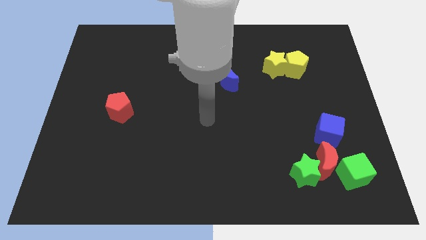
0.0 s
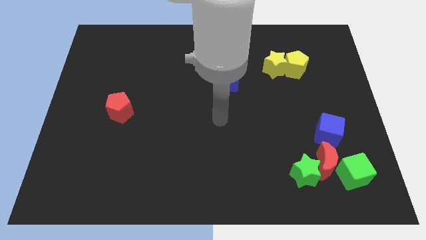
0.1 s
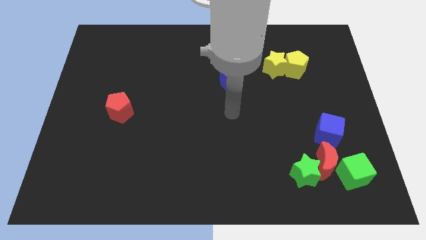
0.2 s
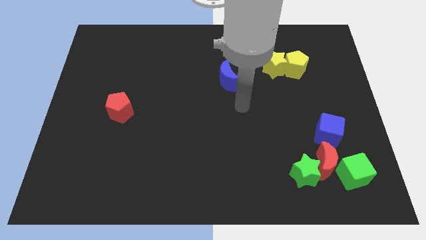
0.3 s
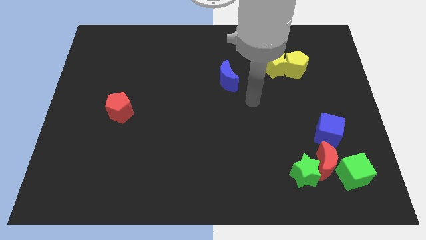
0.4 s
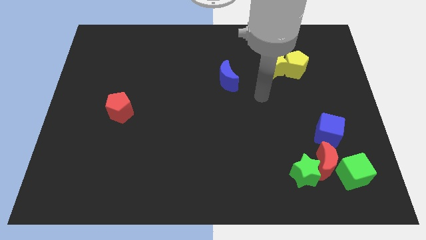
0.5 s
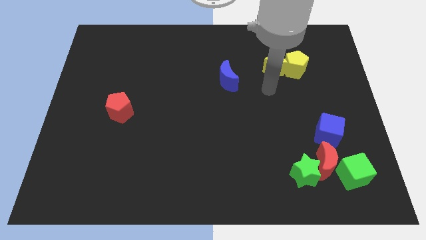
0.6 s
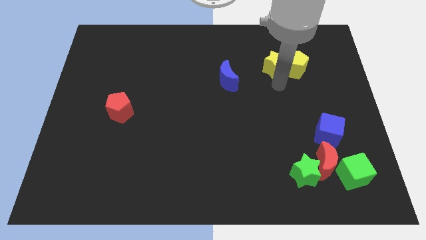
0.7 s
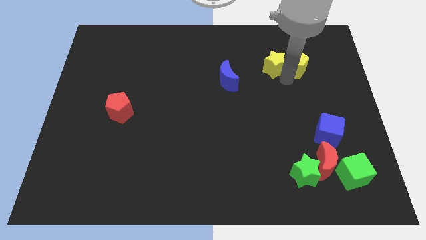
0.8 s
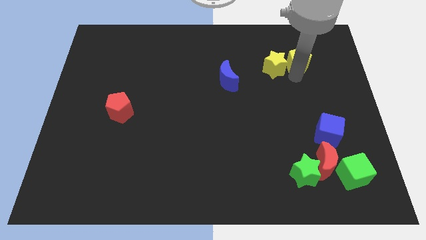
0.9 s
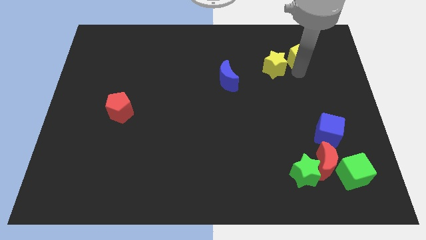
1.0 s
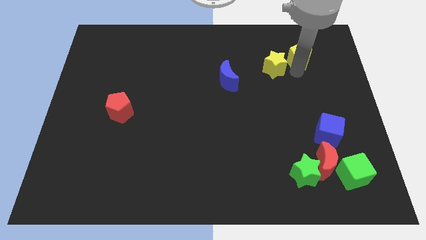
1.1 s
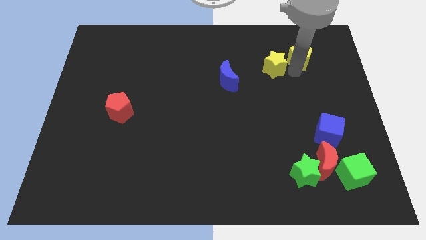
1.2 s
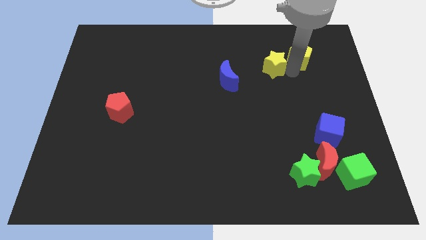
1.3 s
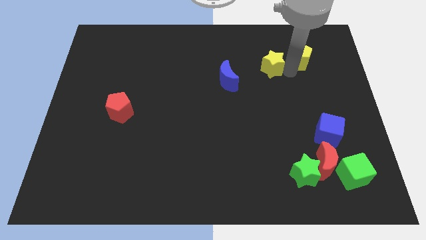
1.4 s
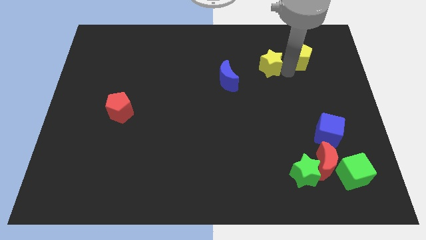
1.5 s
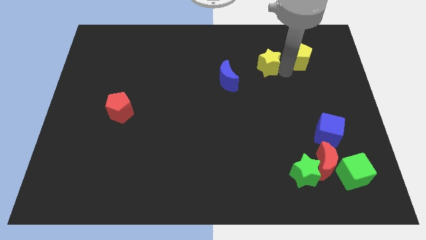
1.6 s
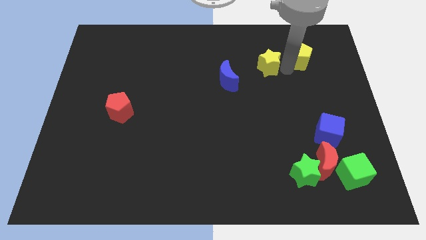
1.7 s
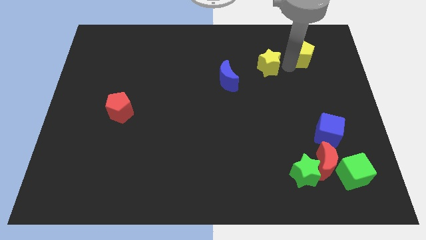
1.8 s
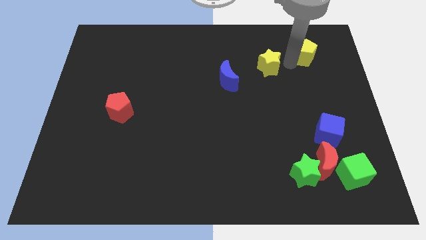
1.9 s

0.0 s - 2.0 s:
separate the yellow star from the yellow pentagon

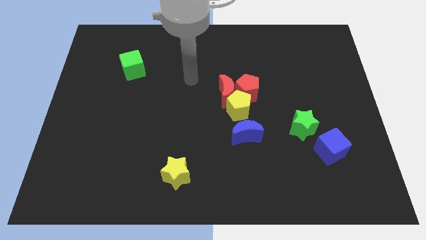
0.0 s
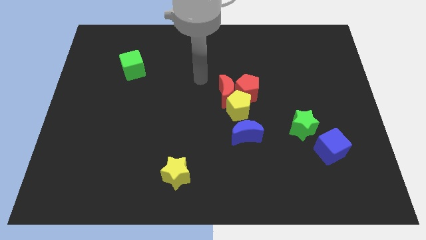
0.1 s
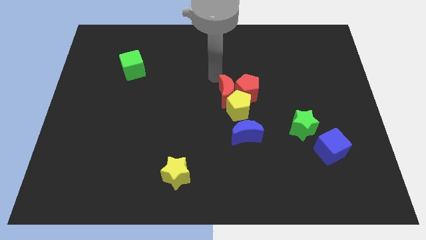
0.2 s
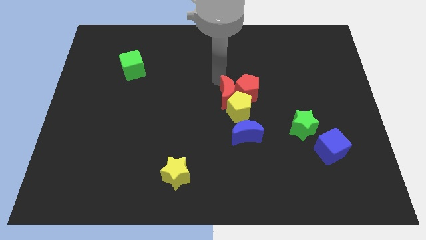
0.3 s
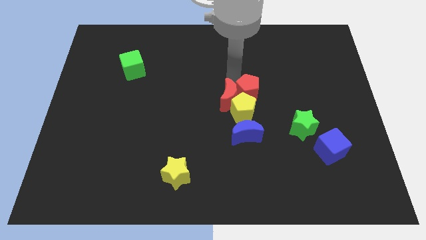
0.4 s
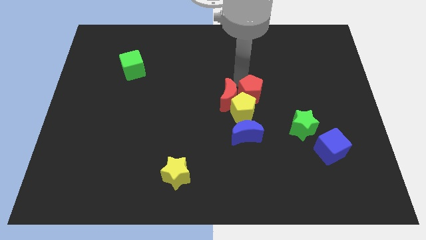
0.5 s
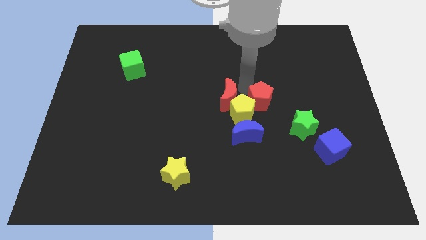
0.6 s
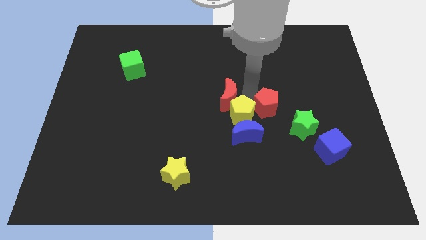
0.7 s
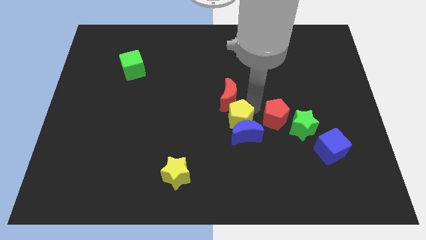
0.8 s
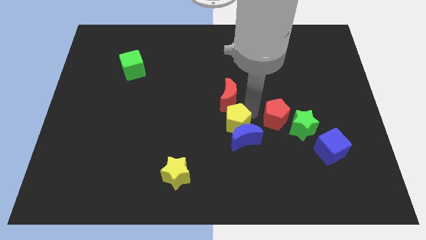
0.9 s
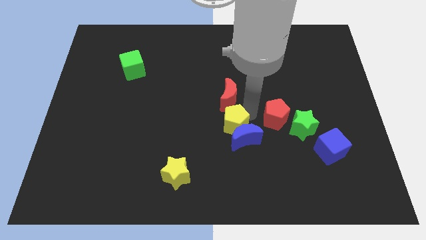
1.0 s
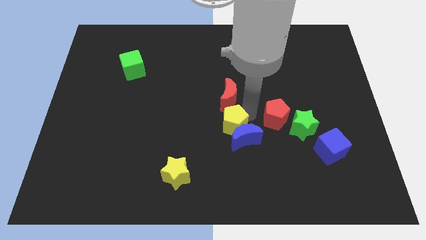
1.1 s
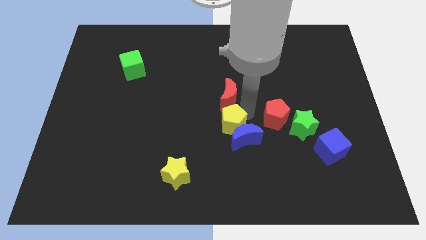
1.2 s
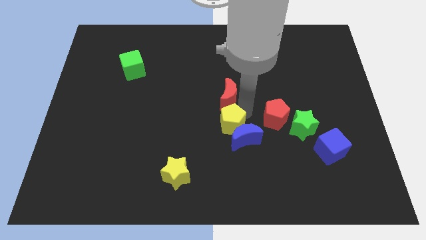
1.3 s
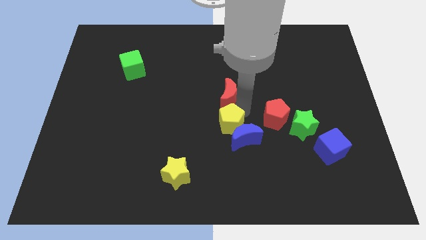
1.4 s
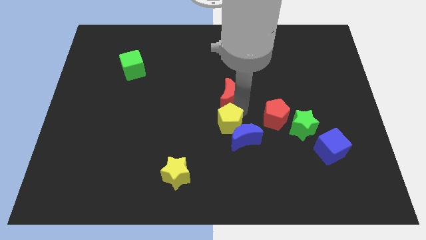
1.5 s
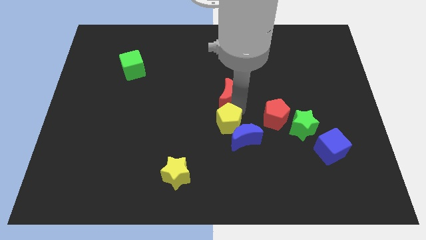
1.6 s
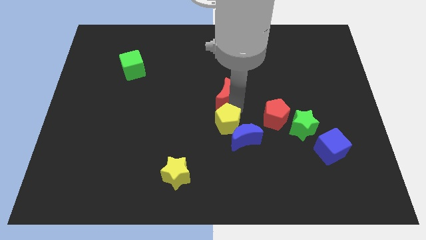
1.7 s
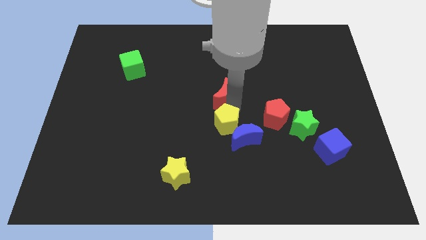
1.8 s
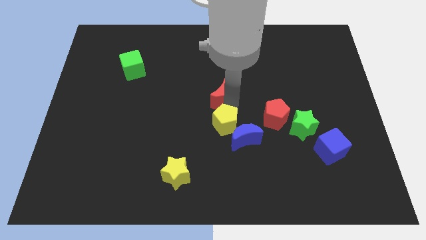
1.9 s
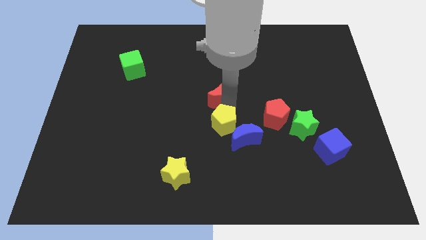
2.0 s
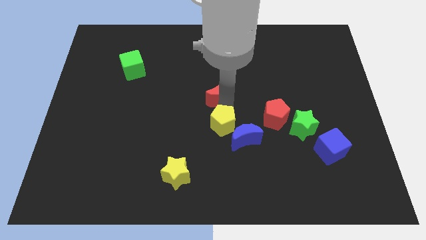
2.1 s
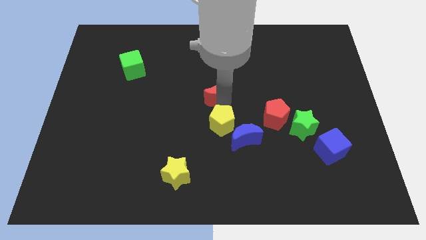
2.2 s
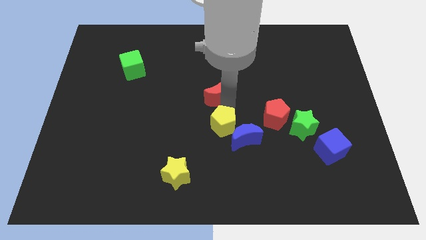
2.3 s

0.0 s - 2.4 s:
pull the red moon apart from the red pentagon and yellow pentagon

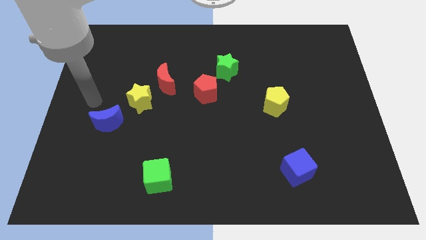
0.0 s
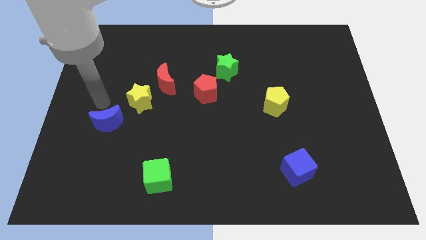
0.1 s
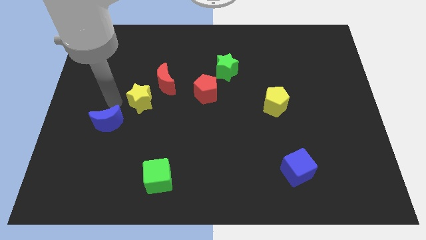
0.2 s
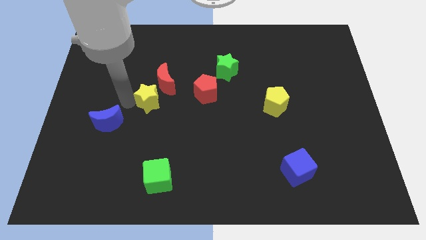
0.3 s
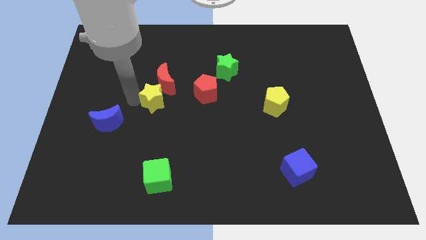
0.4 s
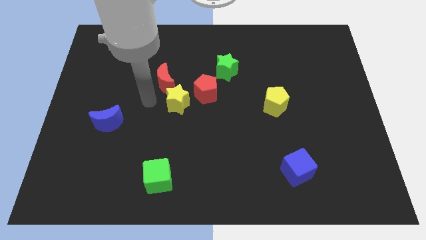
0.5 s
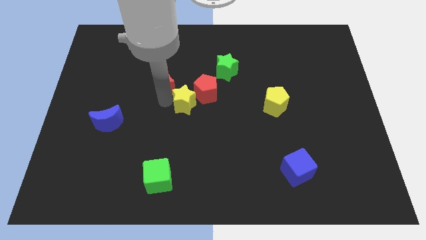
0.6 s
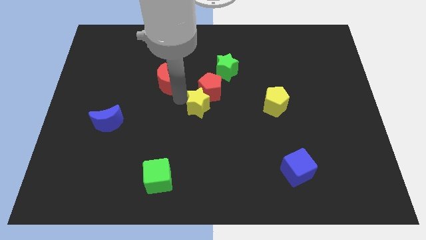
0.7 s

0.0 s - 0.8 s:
move the red moon away from the yellow star

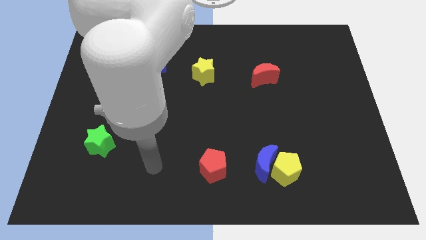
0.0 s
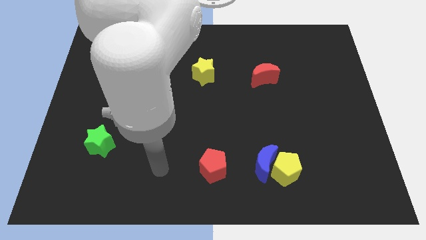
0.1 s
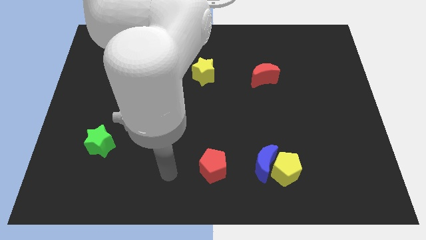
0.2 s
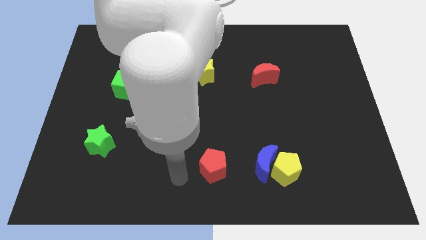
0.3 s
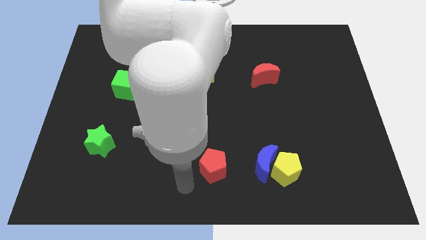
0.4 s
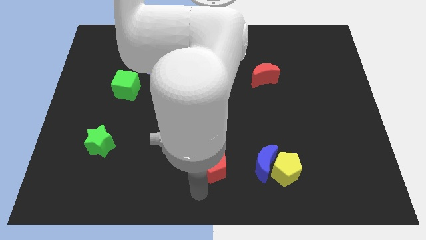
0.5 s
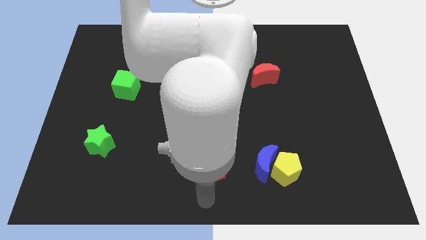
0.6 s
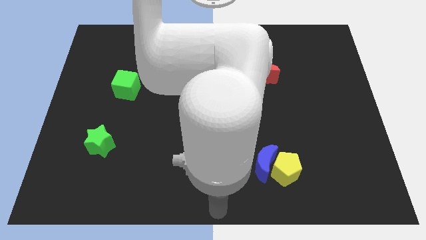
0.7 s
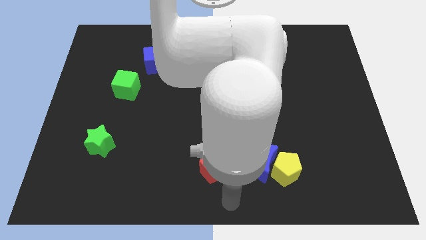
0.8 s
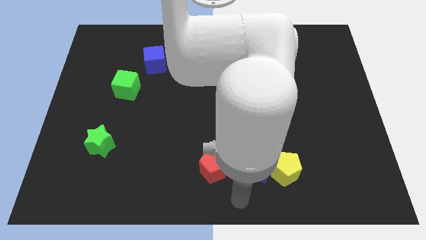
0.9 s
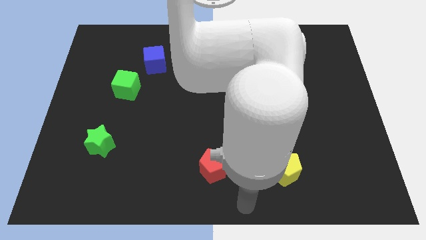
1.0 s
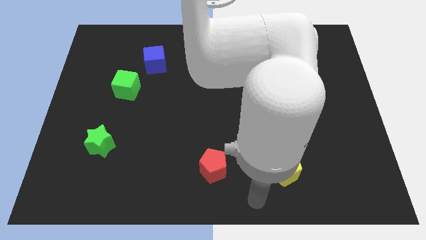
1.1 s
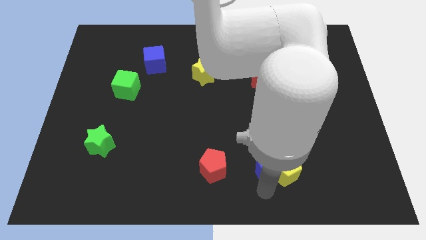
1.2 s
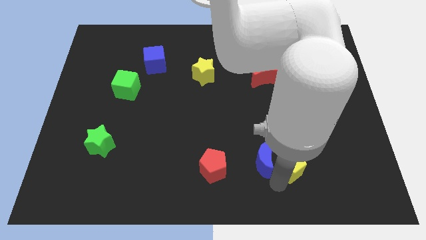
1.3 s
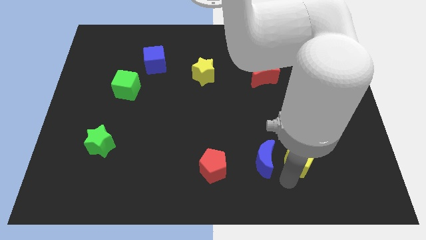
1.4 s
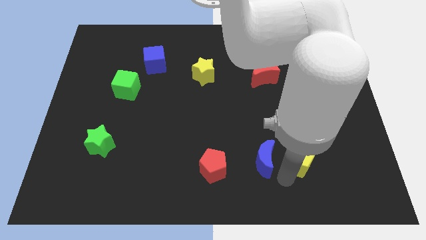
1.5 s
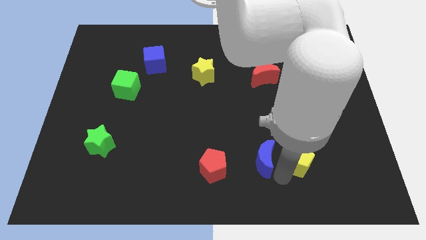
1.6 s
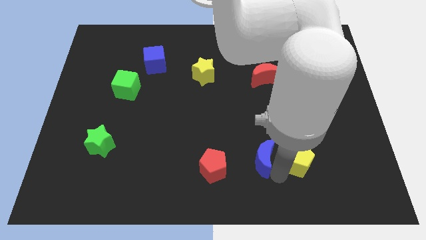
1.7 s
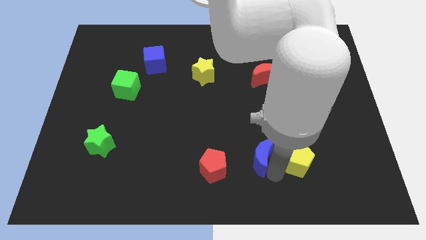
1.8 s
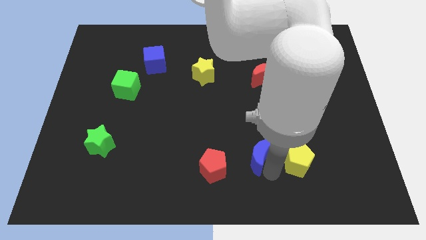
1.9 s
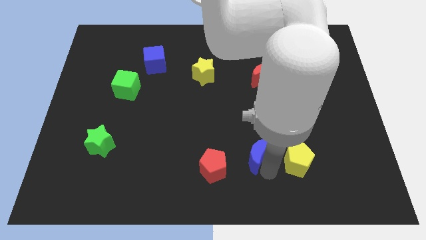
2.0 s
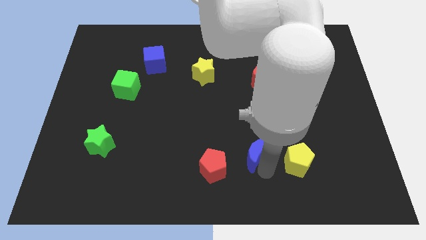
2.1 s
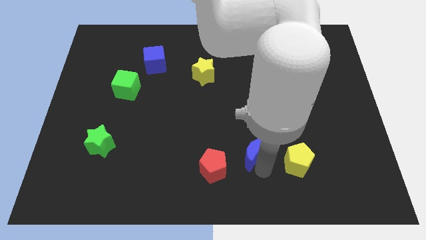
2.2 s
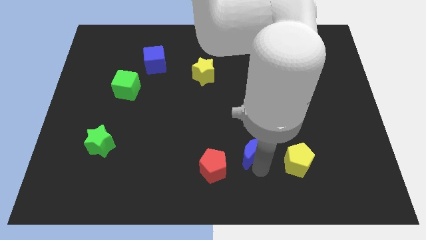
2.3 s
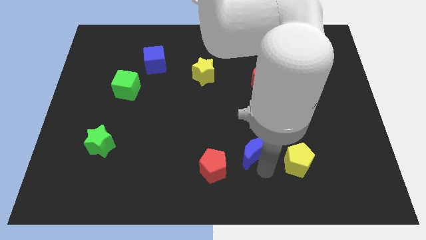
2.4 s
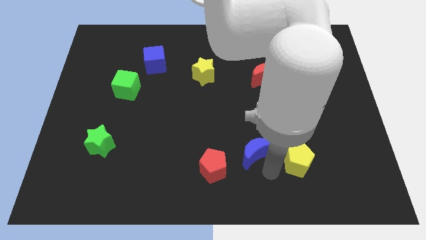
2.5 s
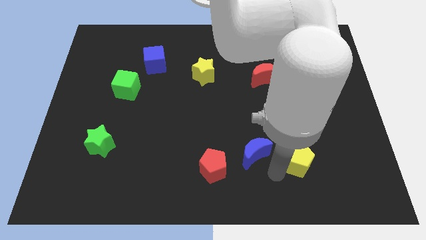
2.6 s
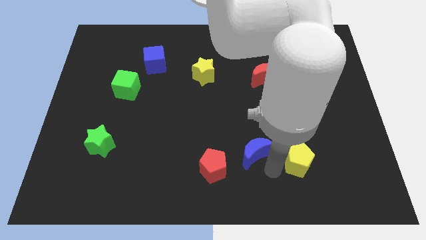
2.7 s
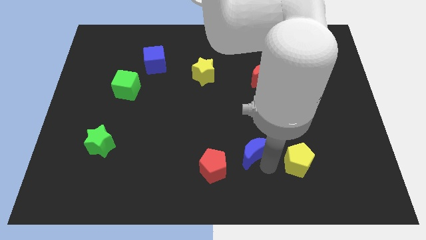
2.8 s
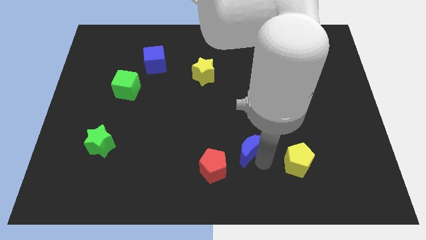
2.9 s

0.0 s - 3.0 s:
pull the blue moon apart from the yellow pentagon

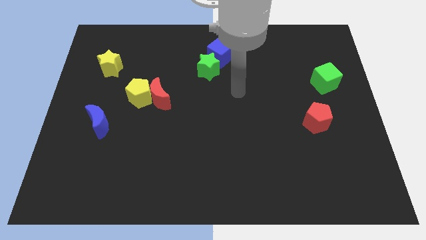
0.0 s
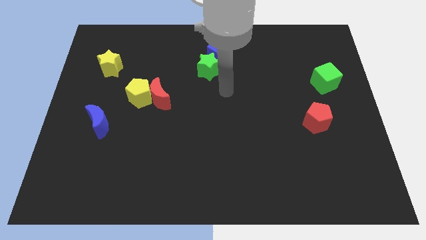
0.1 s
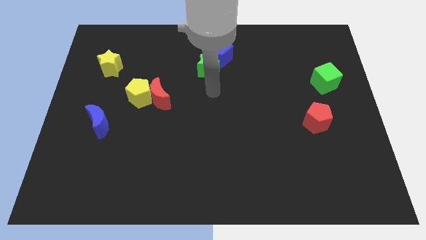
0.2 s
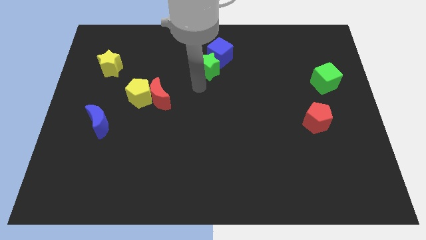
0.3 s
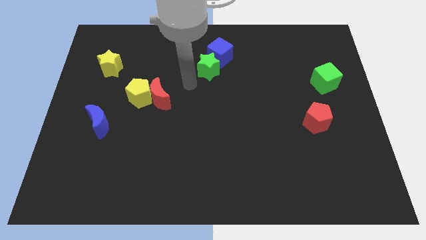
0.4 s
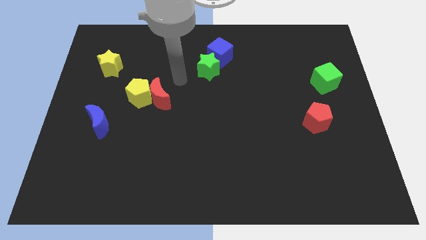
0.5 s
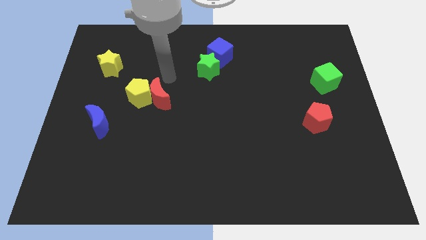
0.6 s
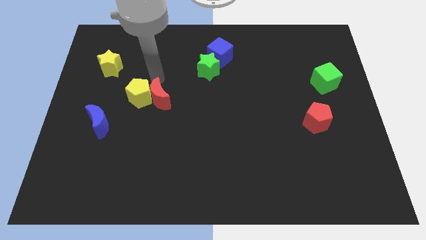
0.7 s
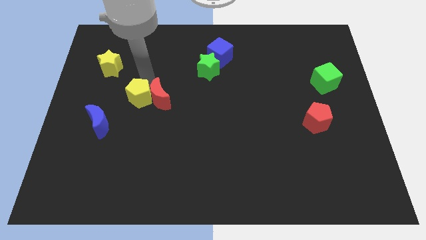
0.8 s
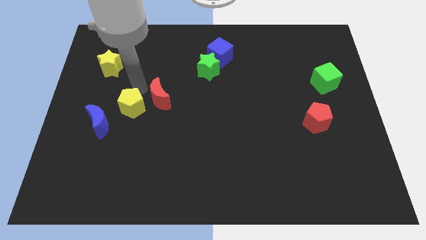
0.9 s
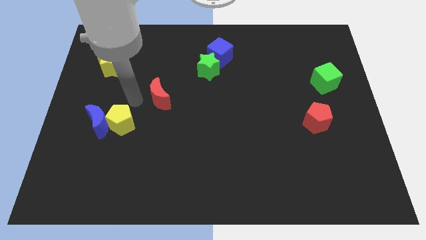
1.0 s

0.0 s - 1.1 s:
pull the red moon apart from the yellow pentagon
